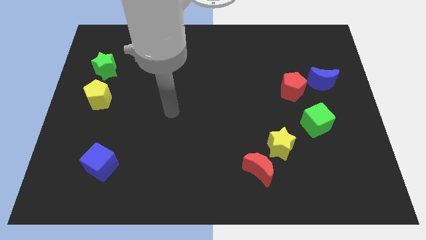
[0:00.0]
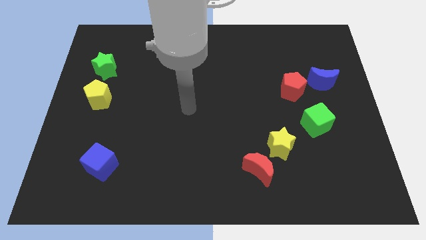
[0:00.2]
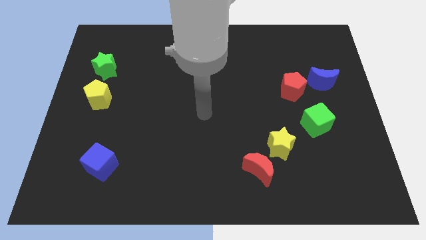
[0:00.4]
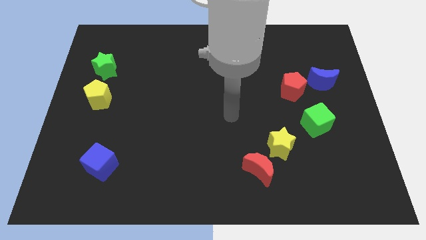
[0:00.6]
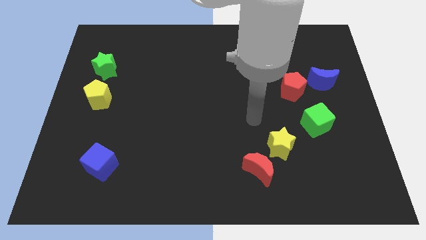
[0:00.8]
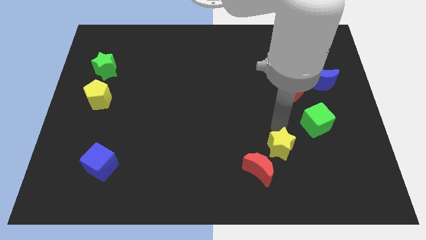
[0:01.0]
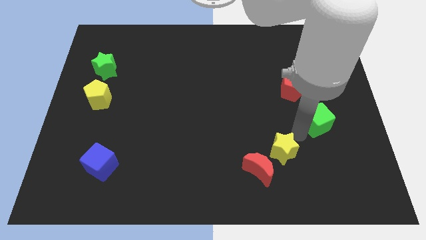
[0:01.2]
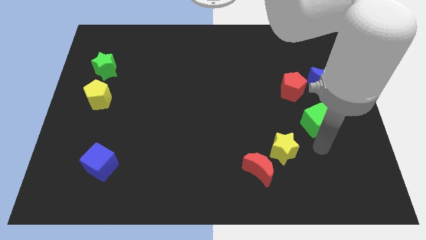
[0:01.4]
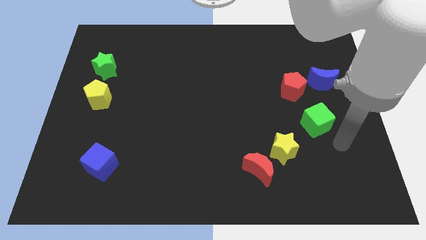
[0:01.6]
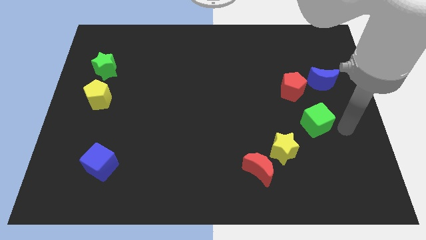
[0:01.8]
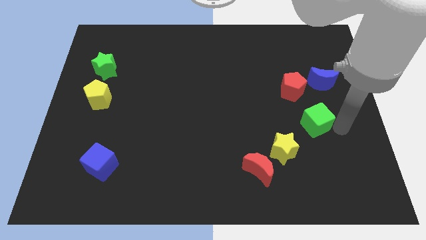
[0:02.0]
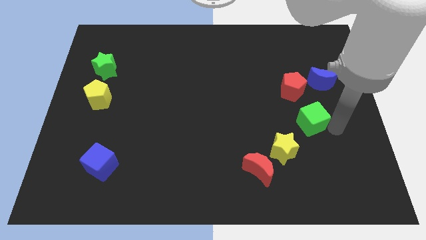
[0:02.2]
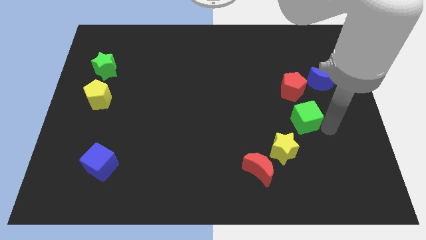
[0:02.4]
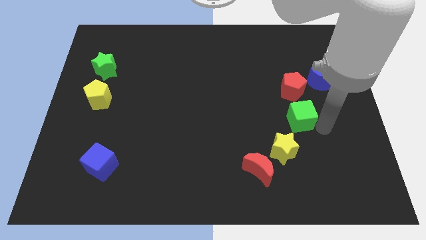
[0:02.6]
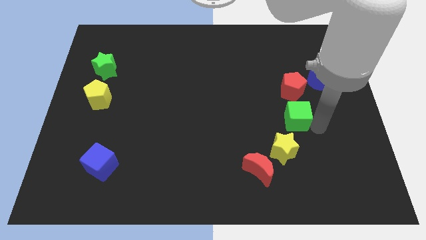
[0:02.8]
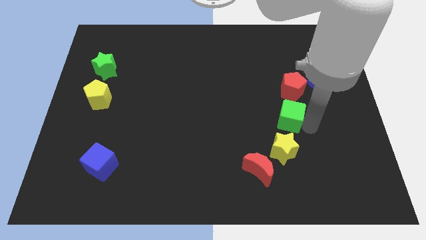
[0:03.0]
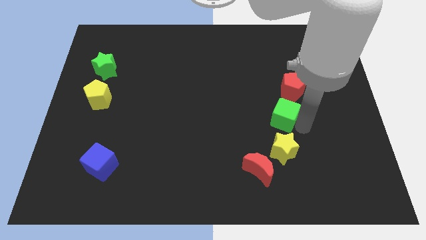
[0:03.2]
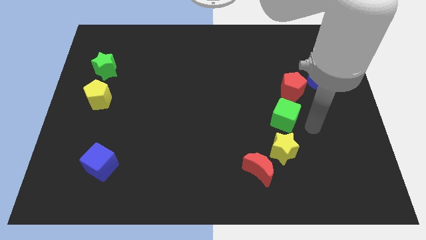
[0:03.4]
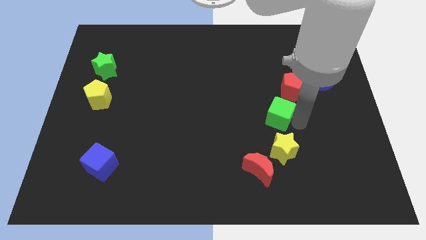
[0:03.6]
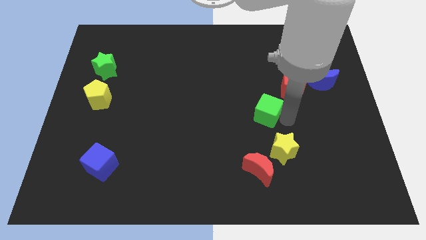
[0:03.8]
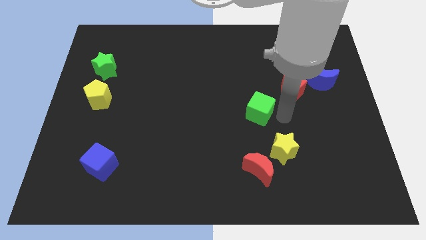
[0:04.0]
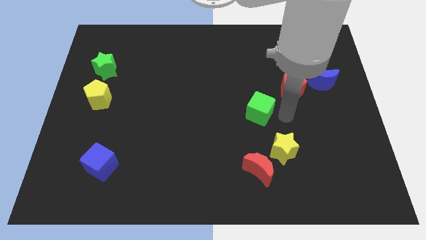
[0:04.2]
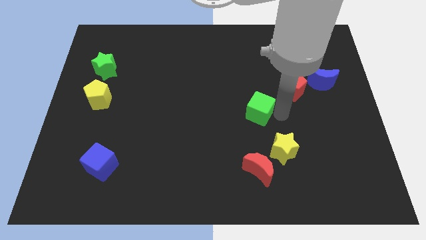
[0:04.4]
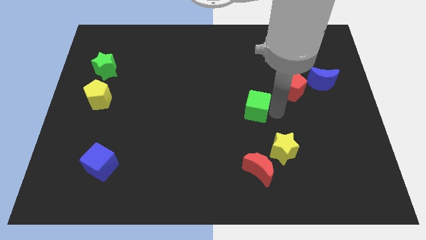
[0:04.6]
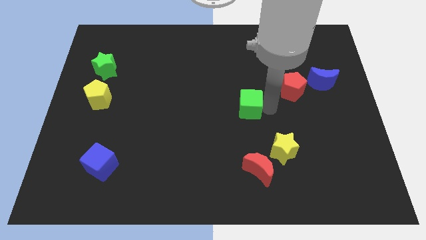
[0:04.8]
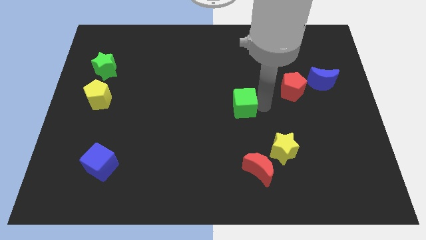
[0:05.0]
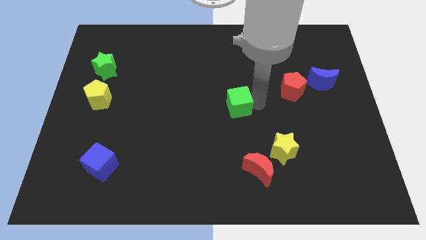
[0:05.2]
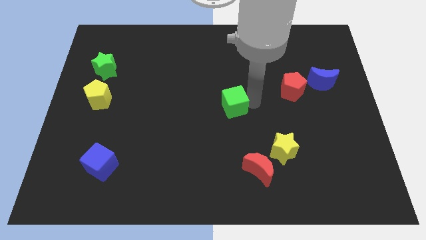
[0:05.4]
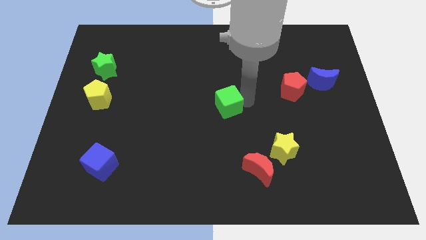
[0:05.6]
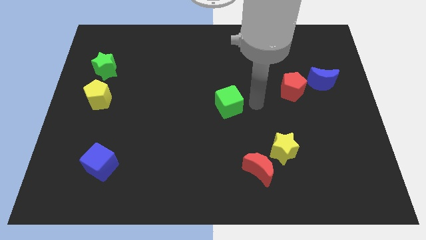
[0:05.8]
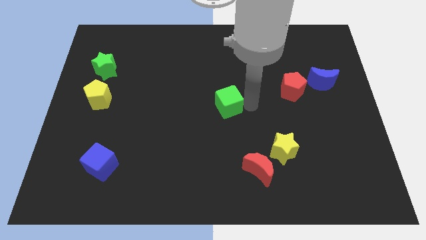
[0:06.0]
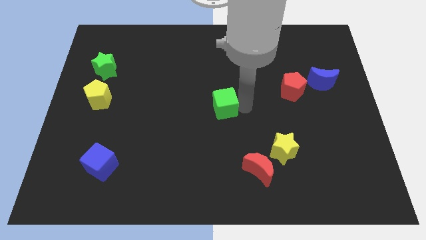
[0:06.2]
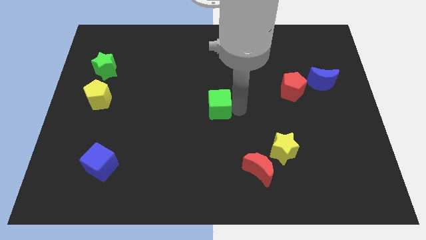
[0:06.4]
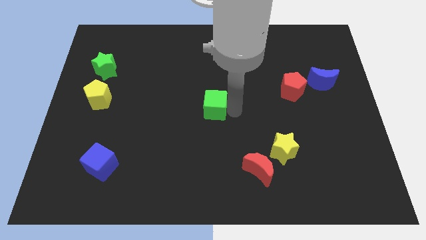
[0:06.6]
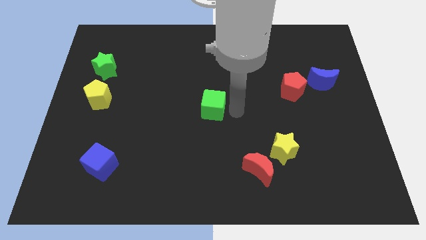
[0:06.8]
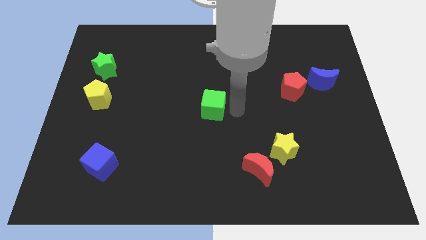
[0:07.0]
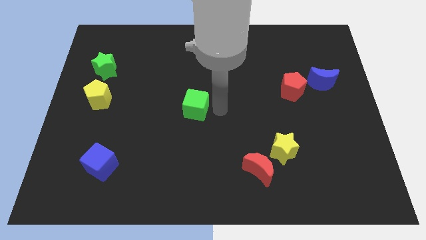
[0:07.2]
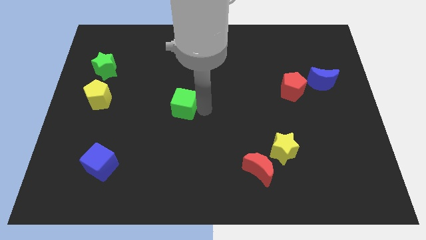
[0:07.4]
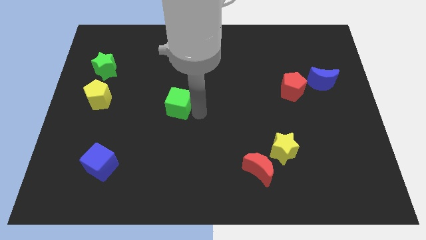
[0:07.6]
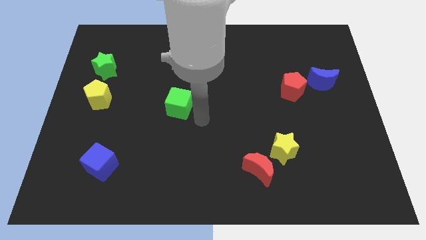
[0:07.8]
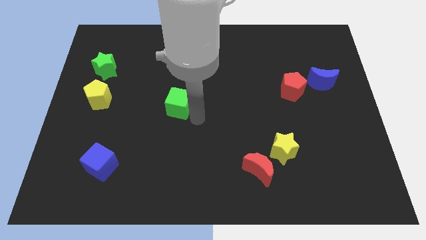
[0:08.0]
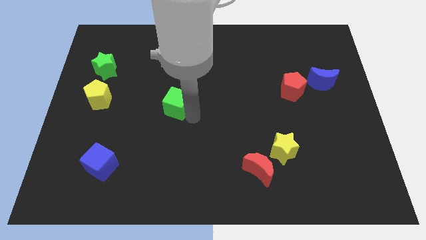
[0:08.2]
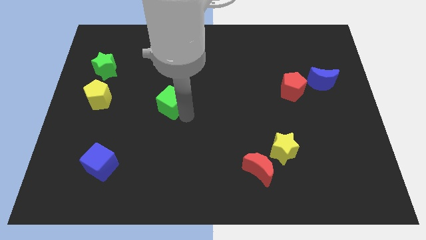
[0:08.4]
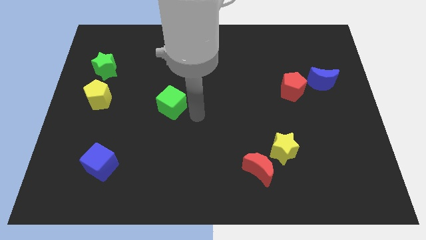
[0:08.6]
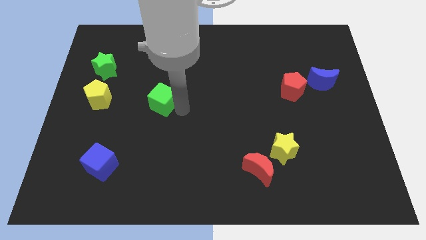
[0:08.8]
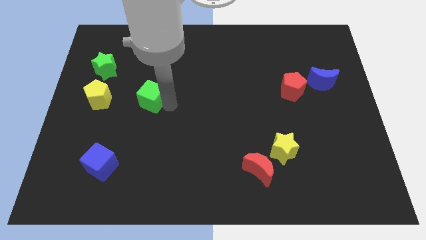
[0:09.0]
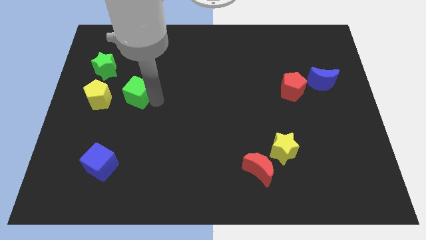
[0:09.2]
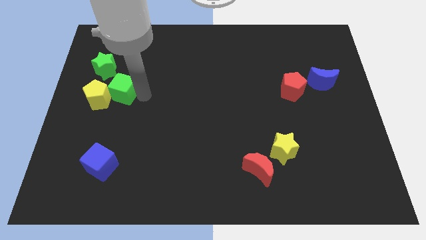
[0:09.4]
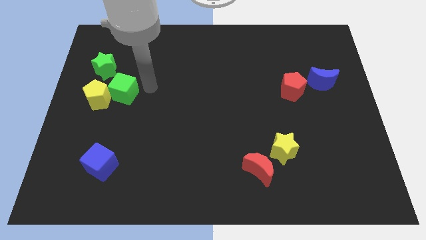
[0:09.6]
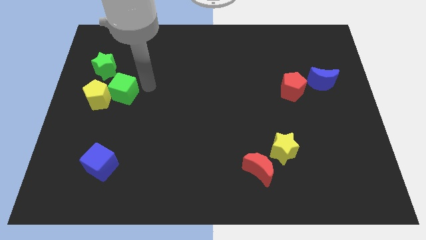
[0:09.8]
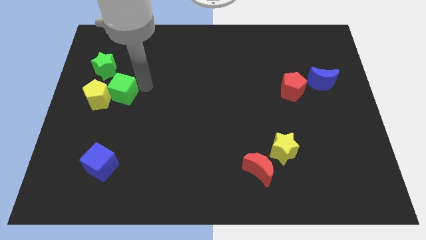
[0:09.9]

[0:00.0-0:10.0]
put the green cube towards the yellow pentagon

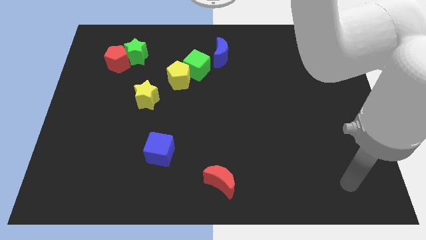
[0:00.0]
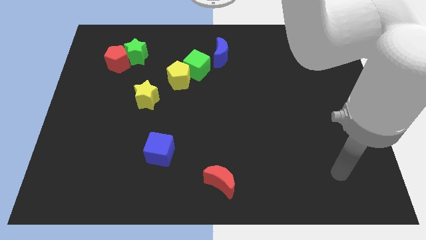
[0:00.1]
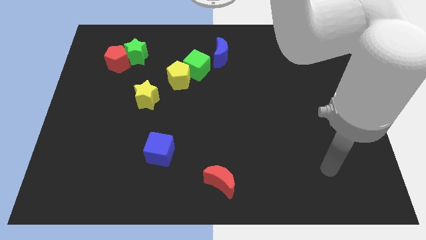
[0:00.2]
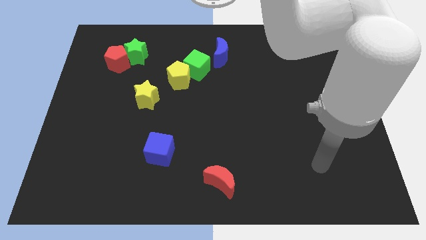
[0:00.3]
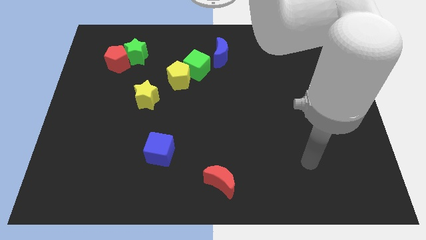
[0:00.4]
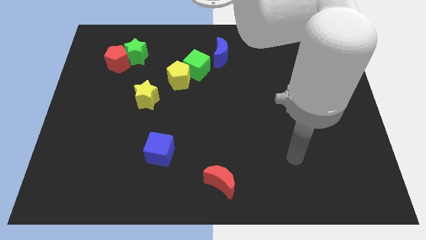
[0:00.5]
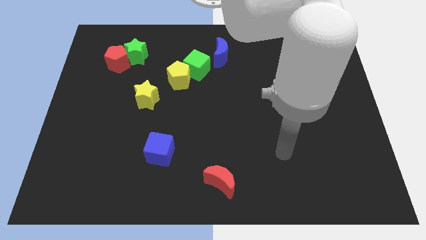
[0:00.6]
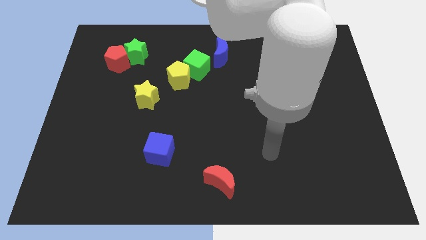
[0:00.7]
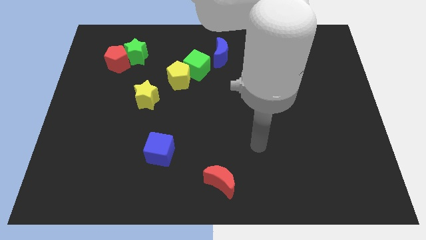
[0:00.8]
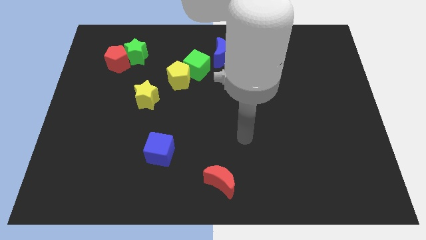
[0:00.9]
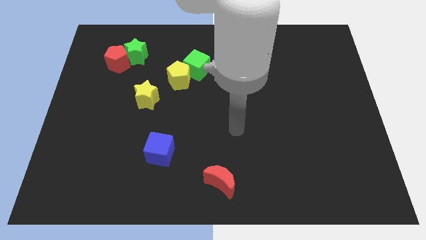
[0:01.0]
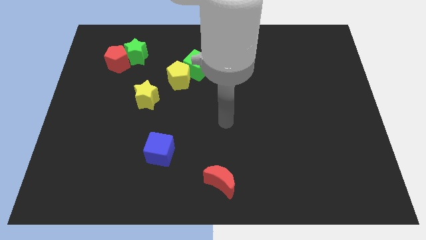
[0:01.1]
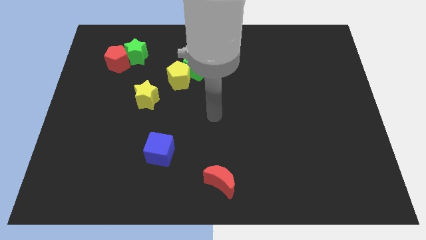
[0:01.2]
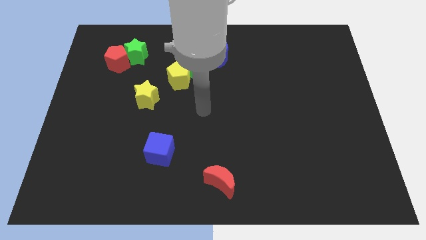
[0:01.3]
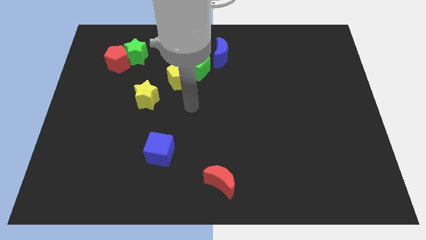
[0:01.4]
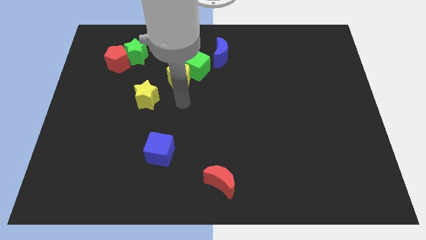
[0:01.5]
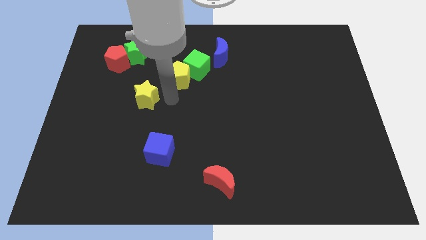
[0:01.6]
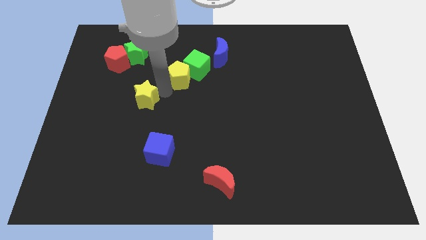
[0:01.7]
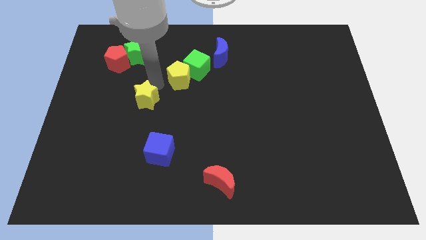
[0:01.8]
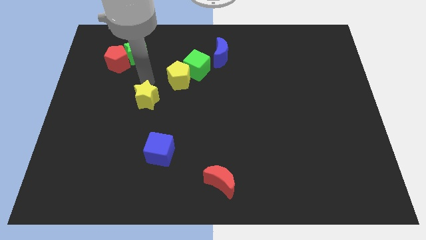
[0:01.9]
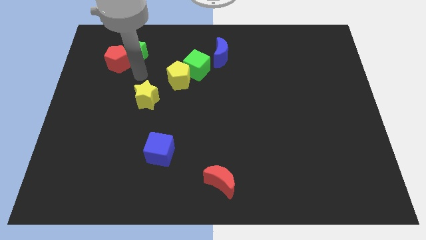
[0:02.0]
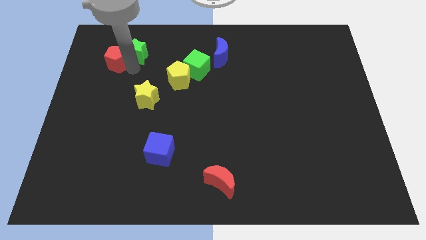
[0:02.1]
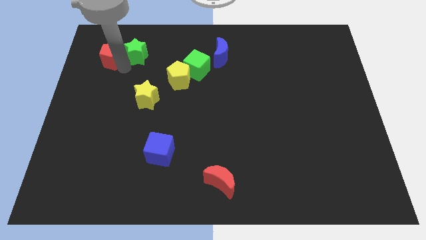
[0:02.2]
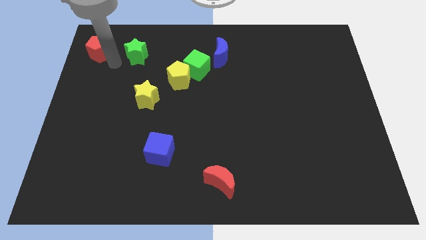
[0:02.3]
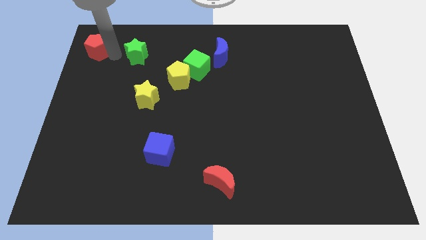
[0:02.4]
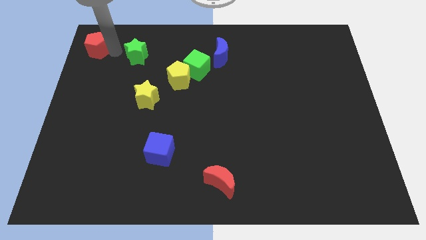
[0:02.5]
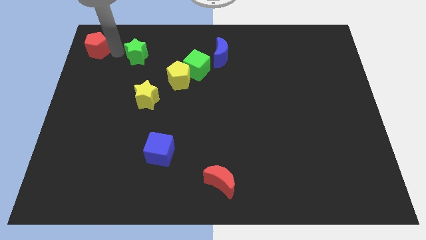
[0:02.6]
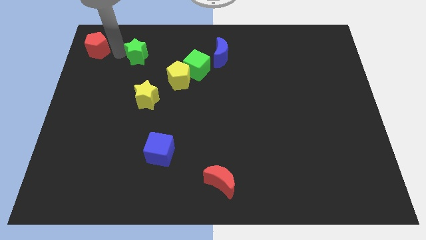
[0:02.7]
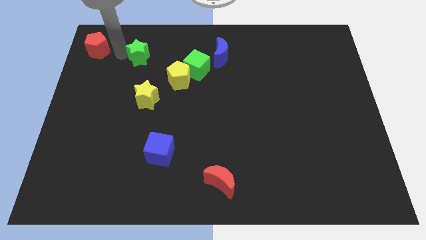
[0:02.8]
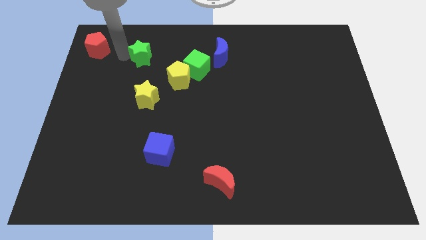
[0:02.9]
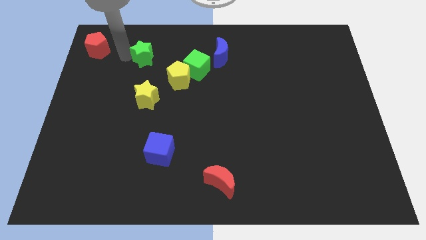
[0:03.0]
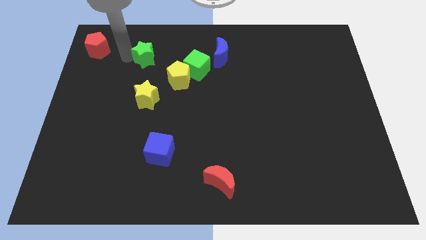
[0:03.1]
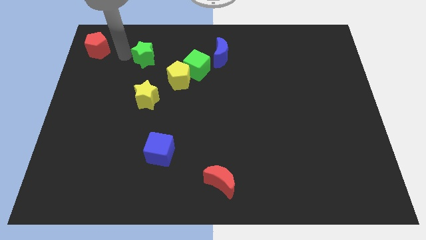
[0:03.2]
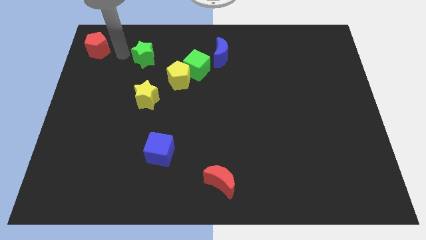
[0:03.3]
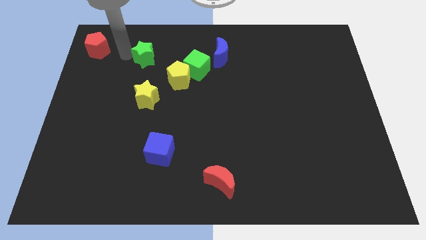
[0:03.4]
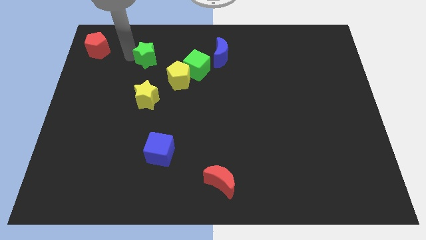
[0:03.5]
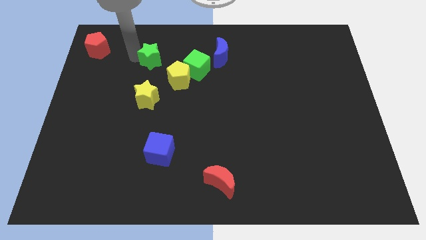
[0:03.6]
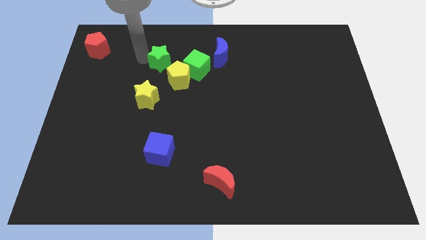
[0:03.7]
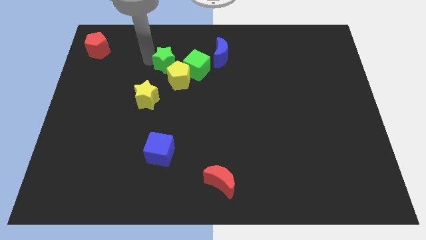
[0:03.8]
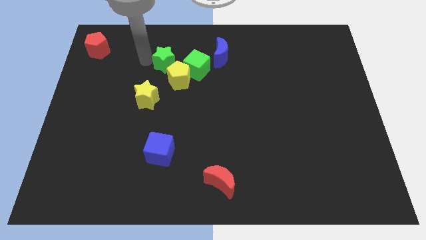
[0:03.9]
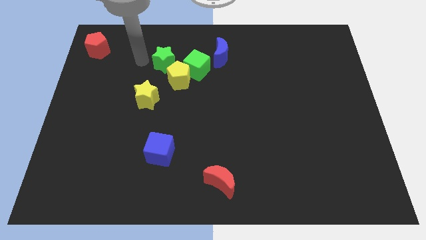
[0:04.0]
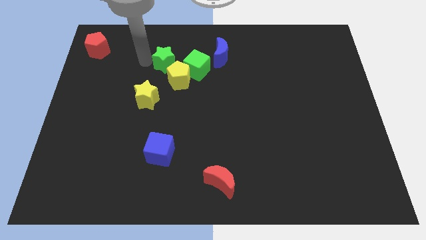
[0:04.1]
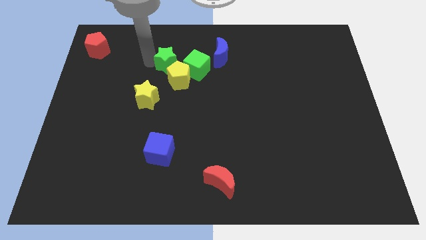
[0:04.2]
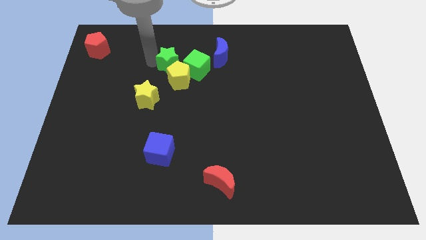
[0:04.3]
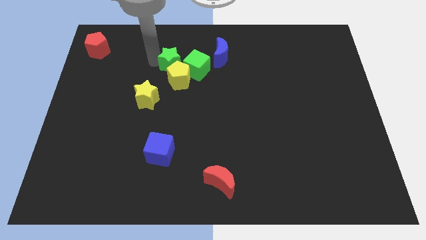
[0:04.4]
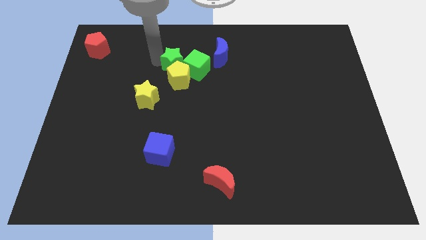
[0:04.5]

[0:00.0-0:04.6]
slide the green star close to the green cube
